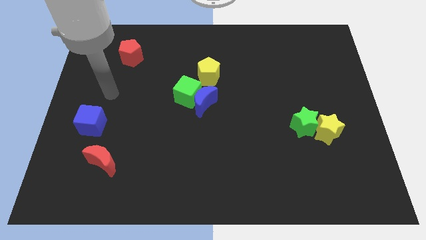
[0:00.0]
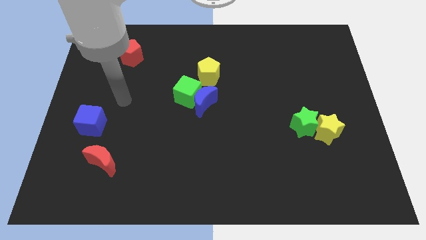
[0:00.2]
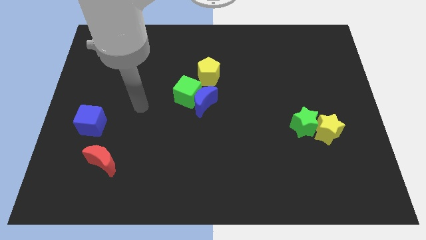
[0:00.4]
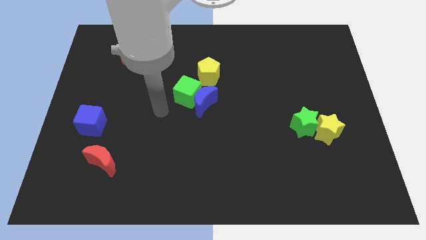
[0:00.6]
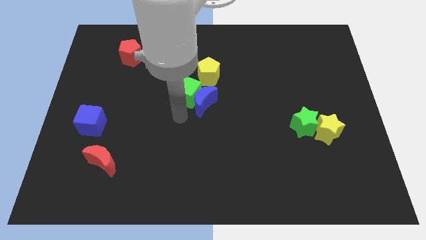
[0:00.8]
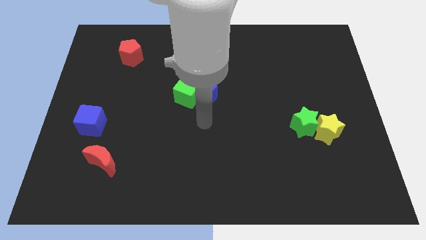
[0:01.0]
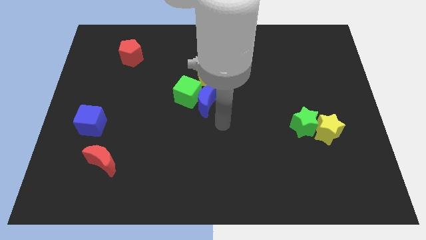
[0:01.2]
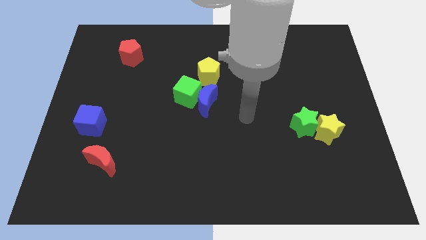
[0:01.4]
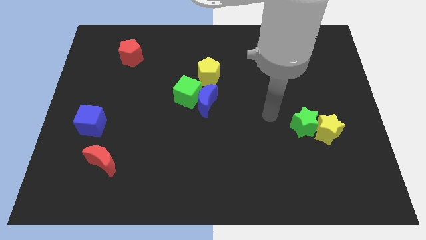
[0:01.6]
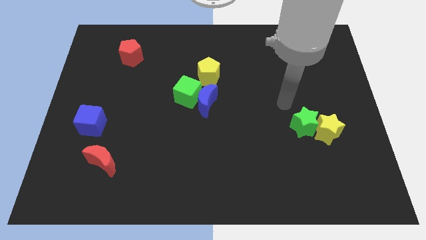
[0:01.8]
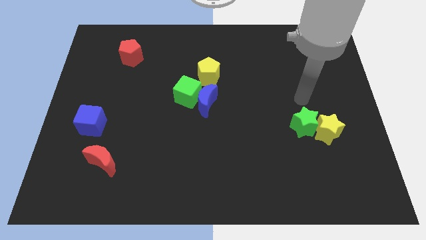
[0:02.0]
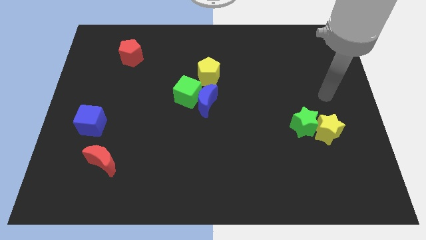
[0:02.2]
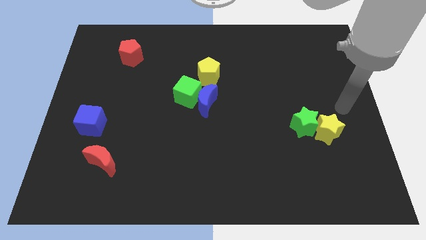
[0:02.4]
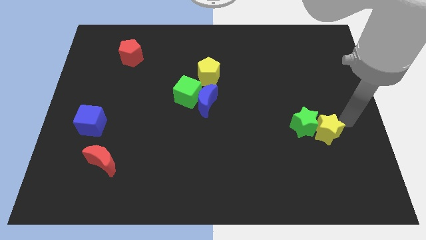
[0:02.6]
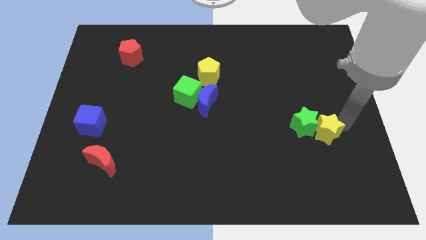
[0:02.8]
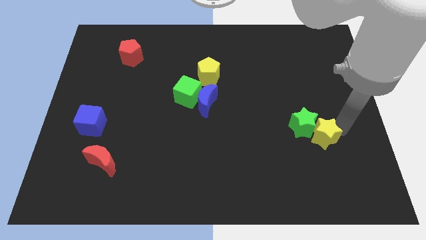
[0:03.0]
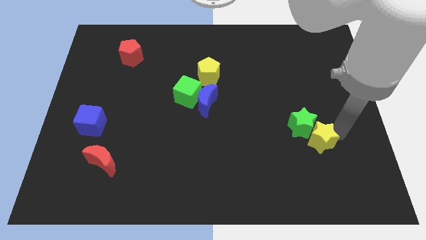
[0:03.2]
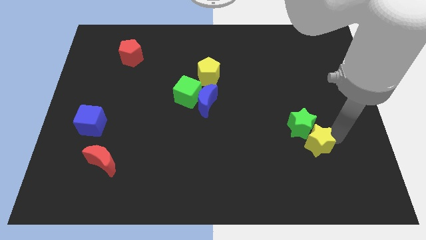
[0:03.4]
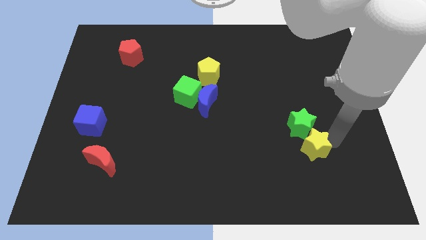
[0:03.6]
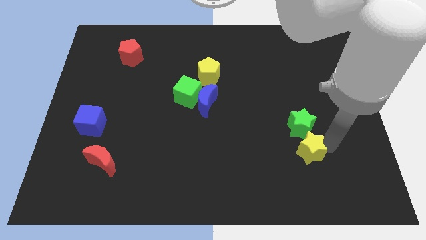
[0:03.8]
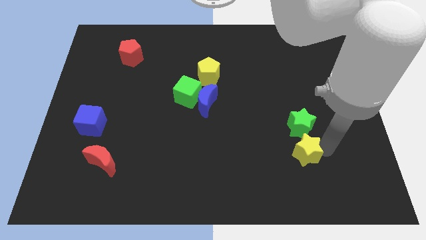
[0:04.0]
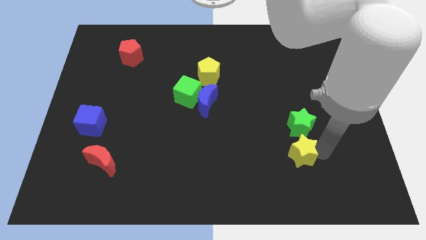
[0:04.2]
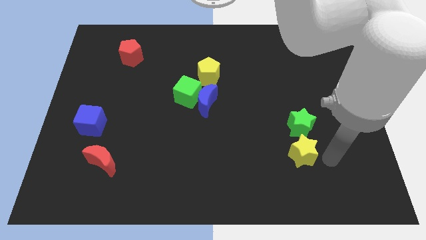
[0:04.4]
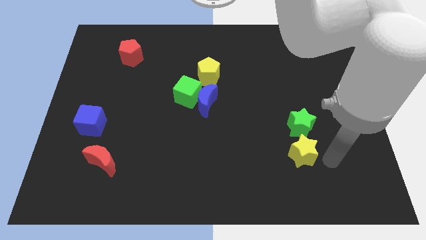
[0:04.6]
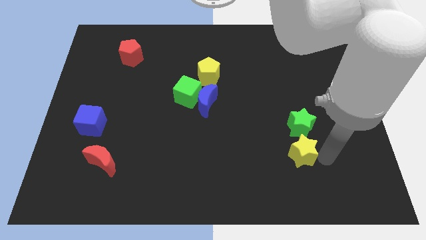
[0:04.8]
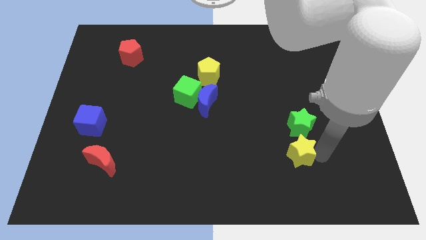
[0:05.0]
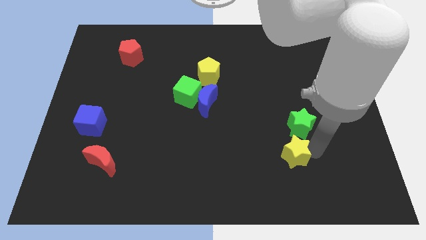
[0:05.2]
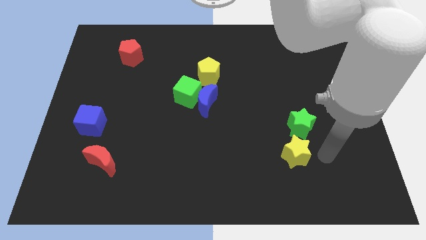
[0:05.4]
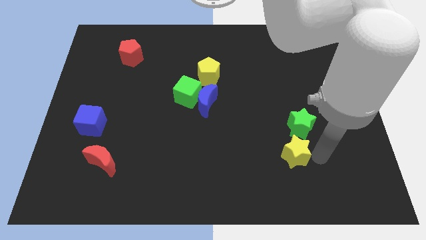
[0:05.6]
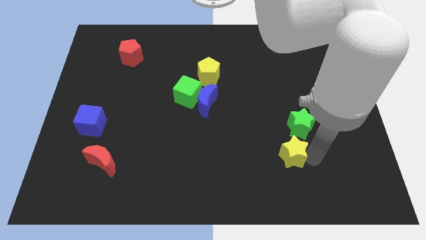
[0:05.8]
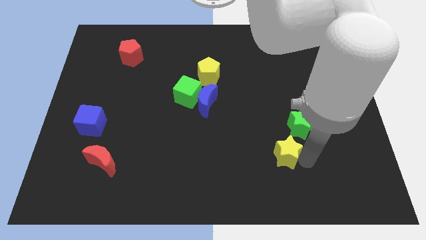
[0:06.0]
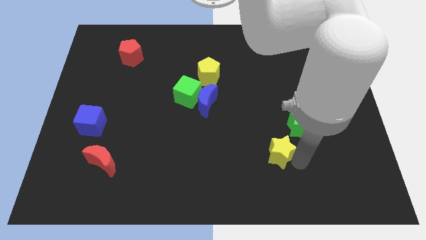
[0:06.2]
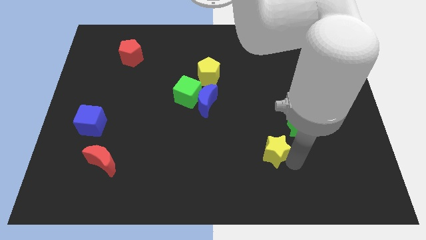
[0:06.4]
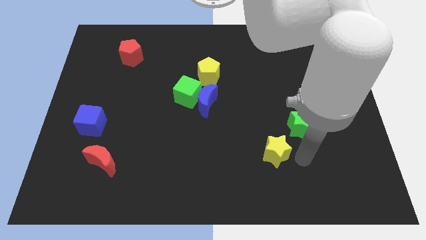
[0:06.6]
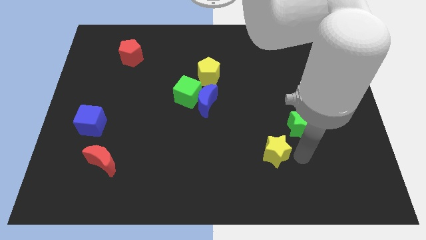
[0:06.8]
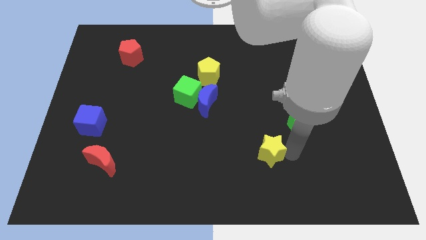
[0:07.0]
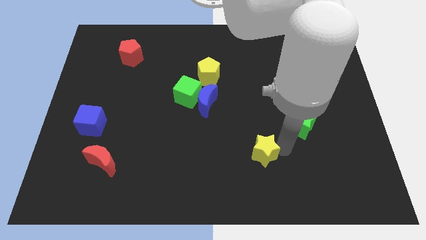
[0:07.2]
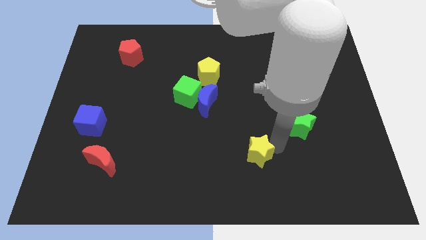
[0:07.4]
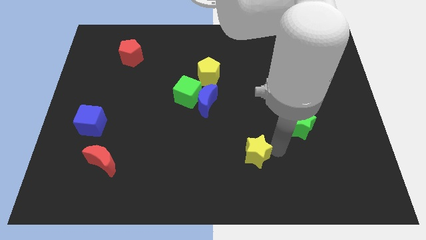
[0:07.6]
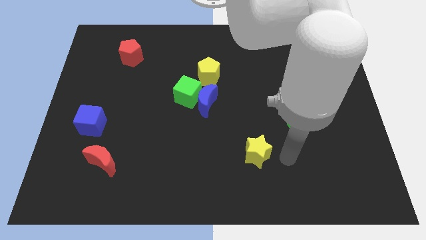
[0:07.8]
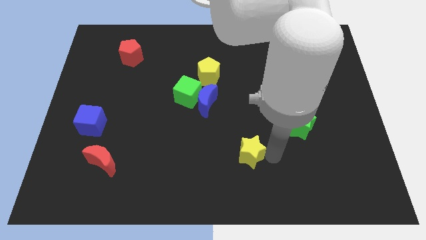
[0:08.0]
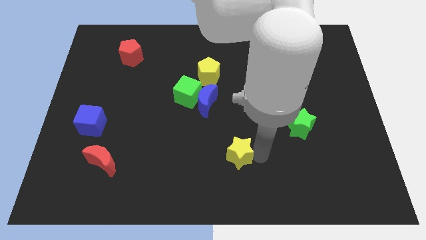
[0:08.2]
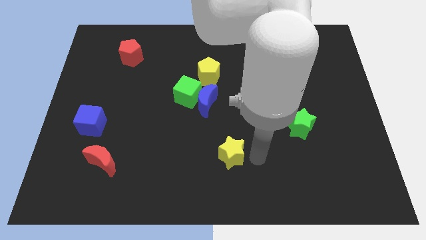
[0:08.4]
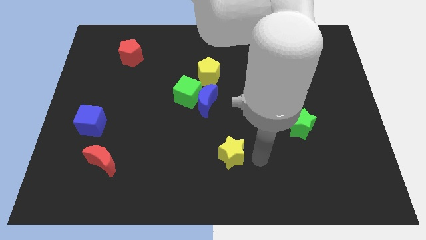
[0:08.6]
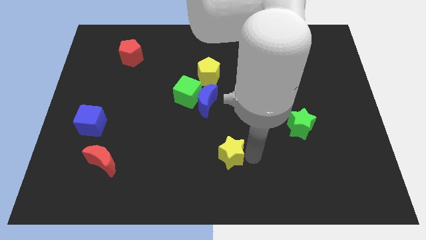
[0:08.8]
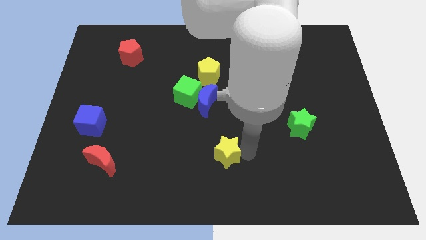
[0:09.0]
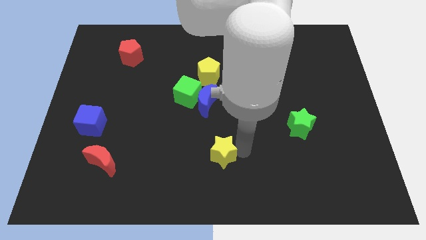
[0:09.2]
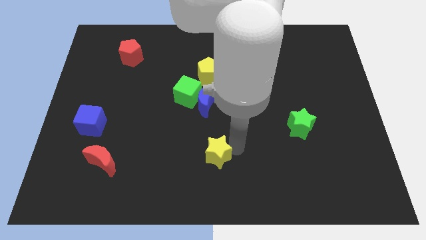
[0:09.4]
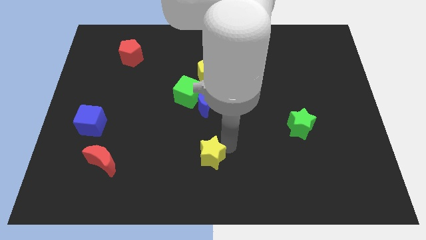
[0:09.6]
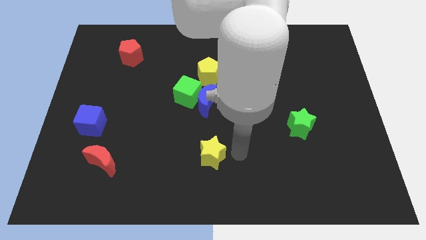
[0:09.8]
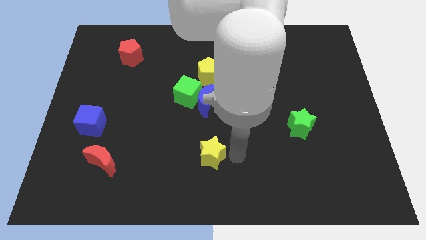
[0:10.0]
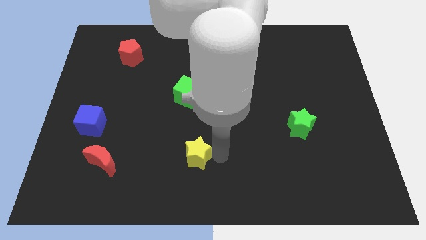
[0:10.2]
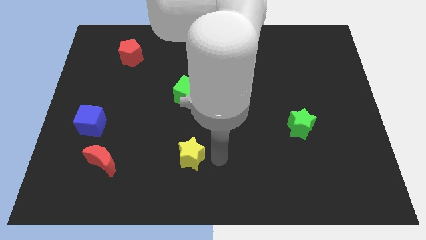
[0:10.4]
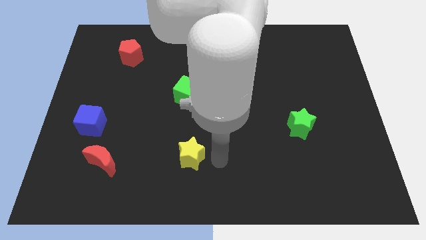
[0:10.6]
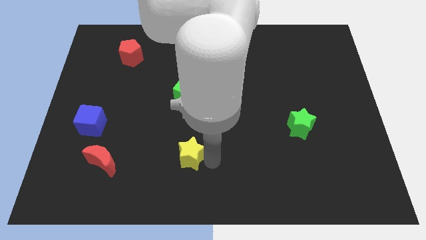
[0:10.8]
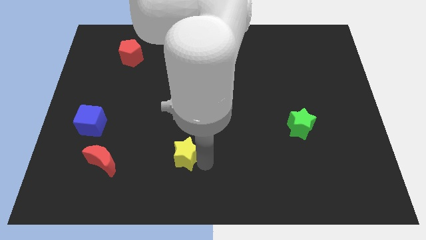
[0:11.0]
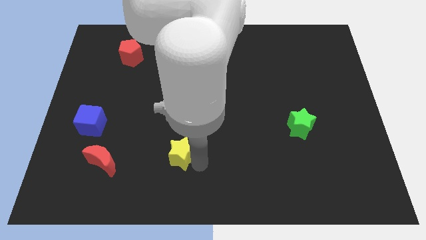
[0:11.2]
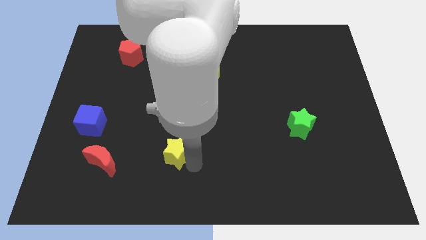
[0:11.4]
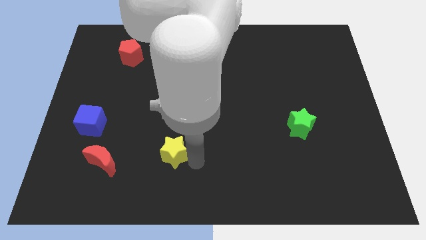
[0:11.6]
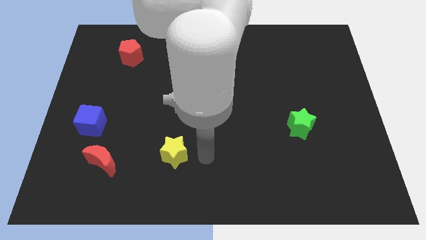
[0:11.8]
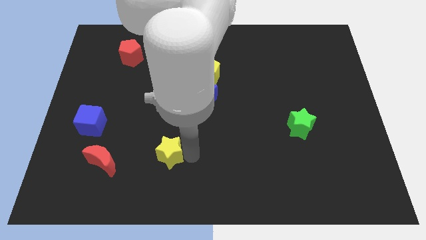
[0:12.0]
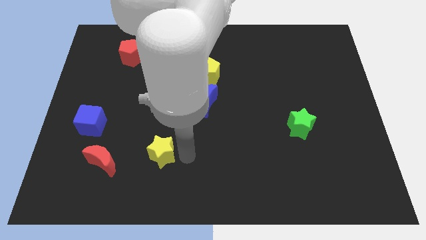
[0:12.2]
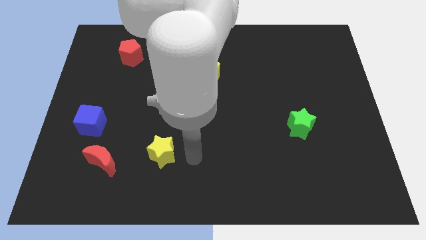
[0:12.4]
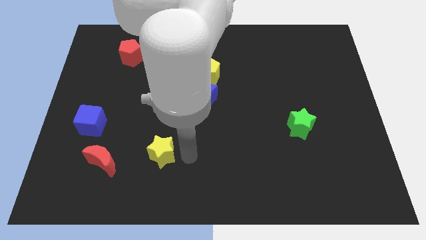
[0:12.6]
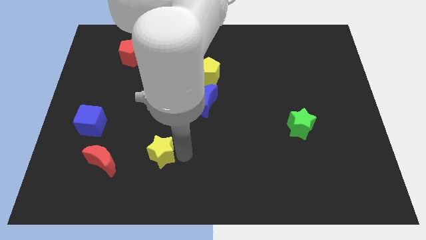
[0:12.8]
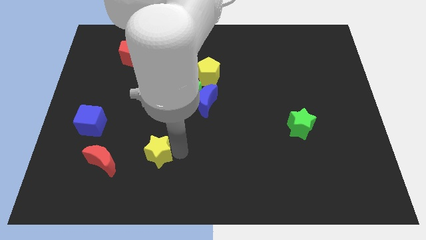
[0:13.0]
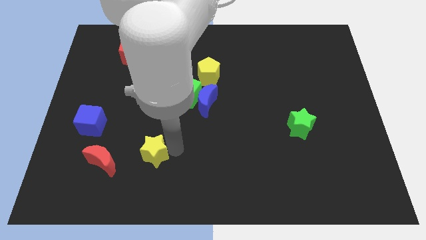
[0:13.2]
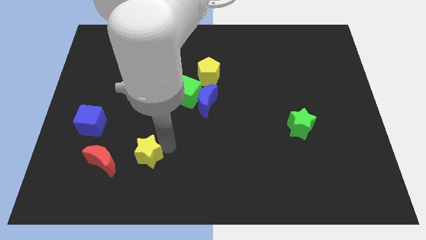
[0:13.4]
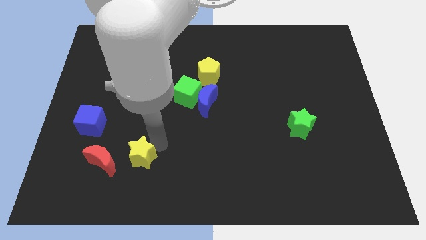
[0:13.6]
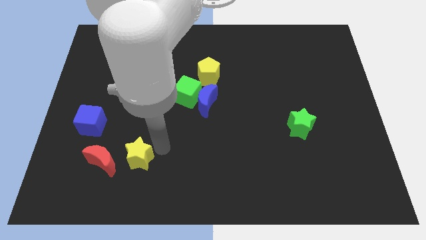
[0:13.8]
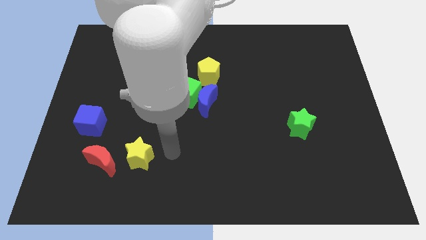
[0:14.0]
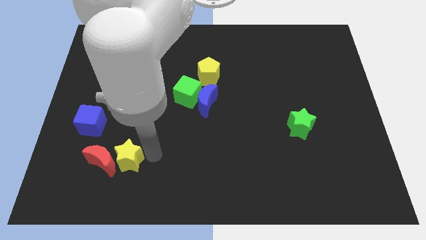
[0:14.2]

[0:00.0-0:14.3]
slide the yellow star to the red moon
